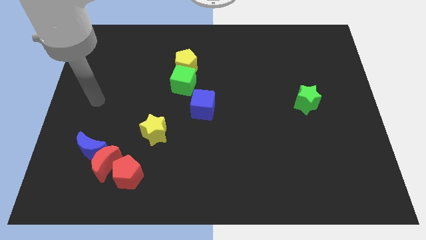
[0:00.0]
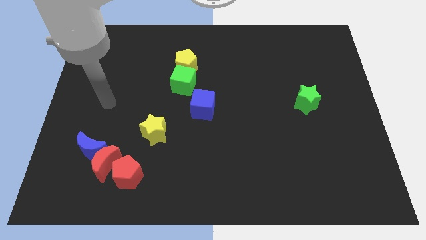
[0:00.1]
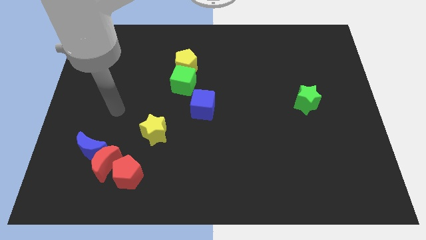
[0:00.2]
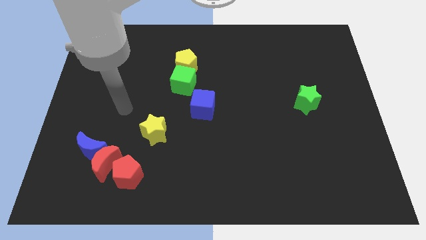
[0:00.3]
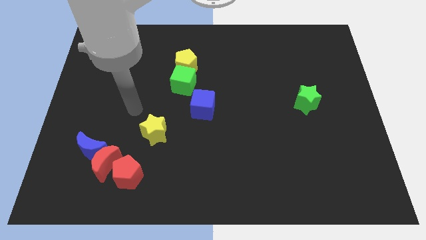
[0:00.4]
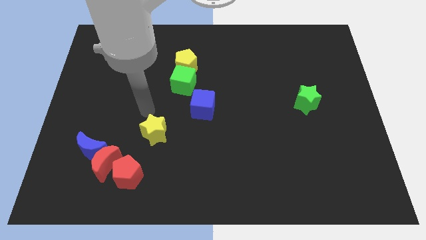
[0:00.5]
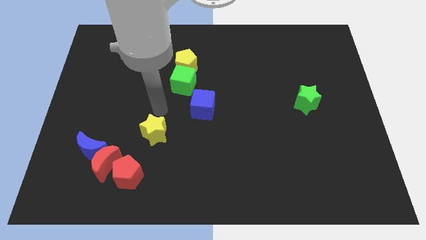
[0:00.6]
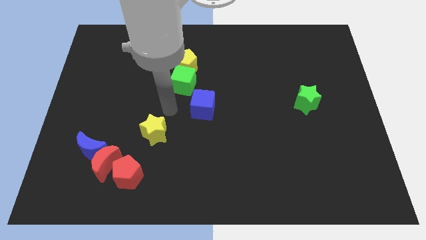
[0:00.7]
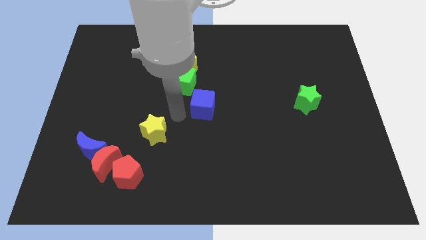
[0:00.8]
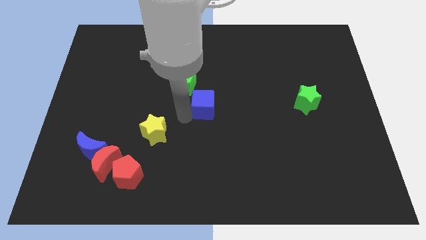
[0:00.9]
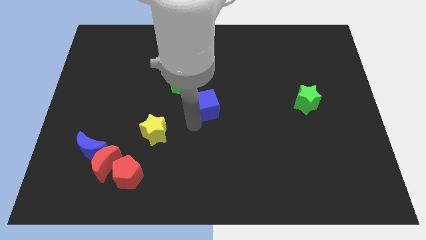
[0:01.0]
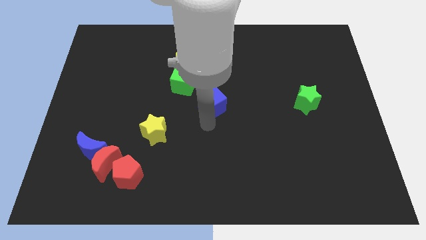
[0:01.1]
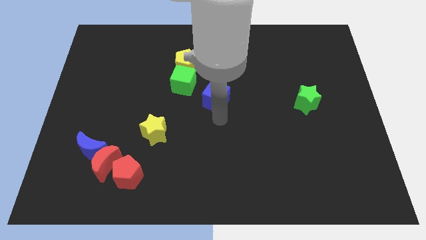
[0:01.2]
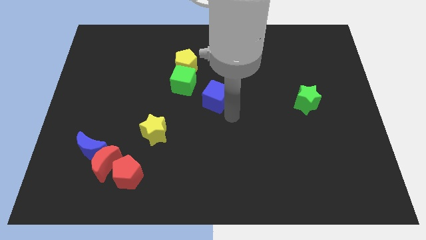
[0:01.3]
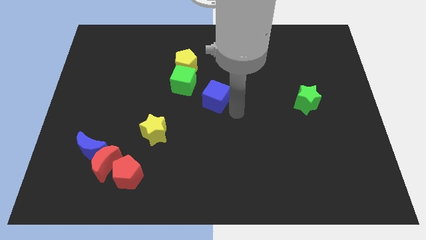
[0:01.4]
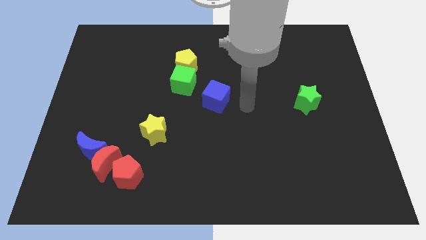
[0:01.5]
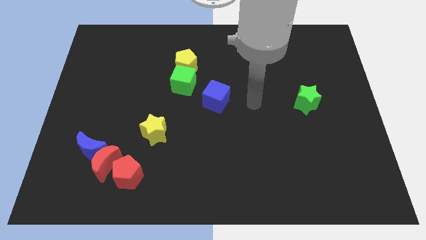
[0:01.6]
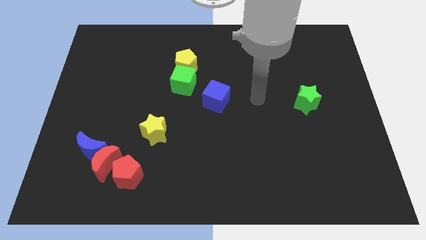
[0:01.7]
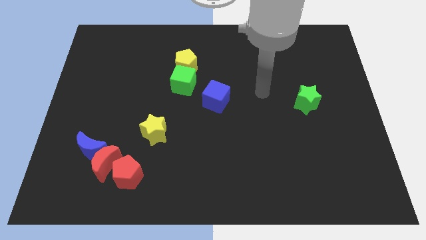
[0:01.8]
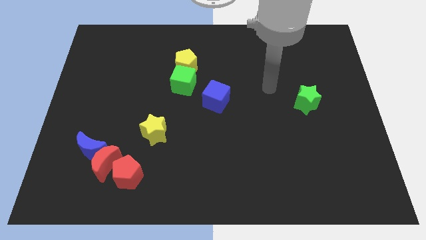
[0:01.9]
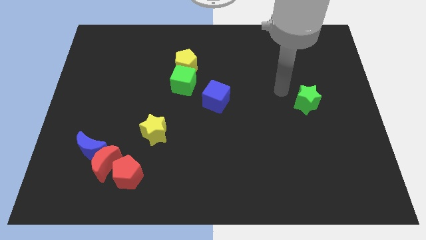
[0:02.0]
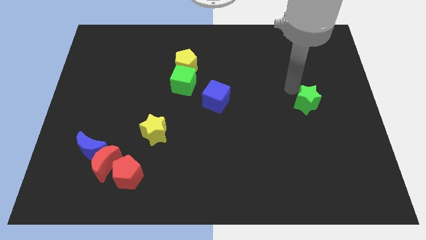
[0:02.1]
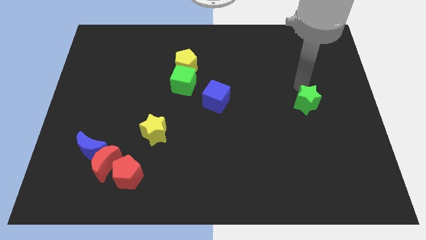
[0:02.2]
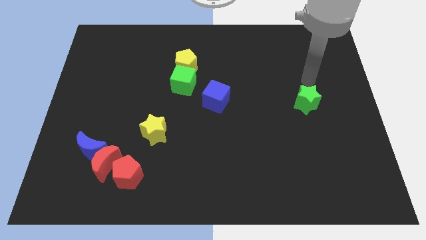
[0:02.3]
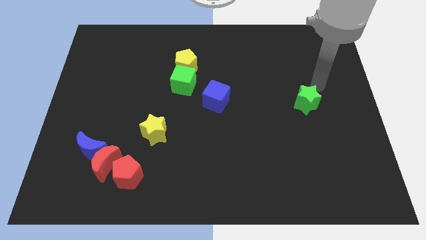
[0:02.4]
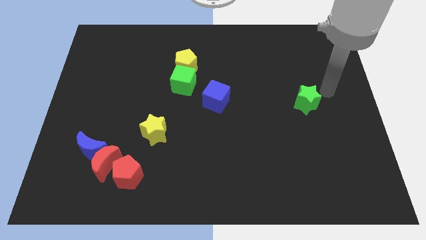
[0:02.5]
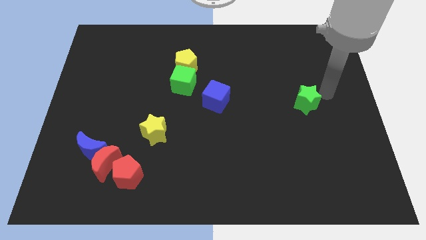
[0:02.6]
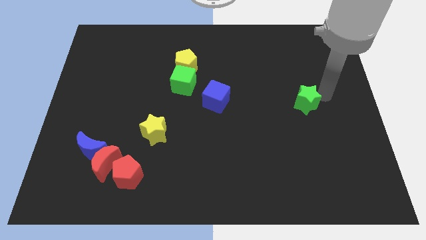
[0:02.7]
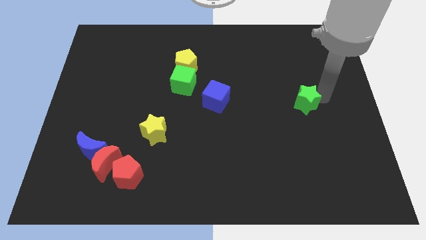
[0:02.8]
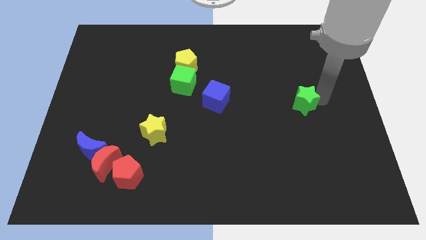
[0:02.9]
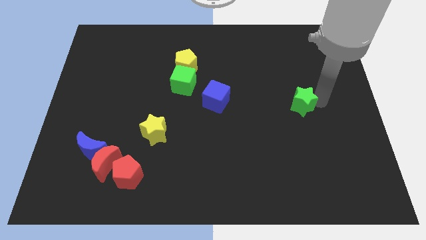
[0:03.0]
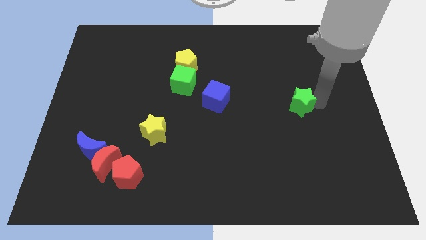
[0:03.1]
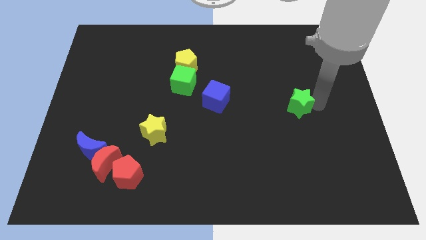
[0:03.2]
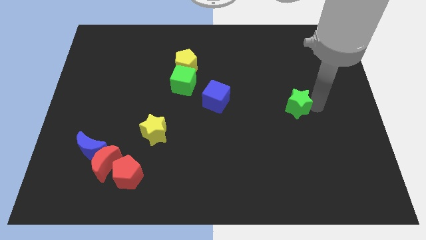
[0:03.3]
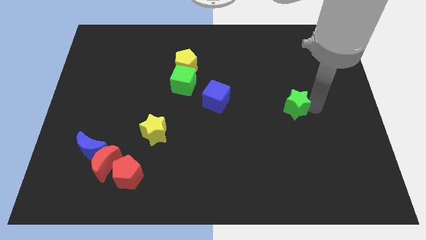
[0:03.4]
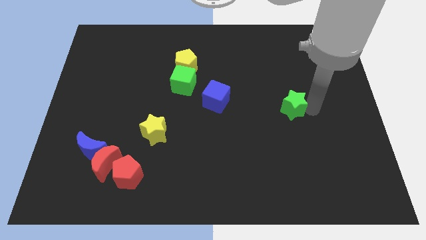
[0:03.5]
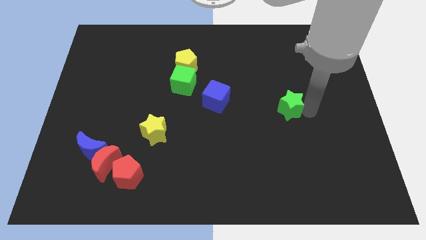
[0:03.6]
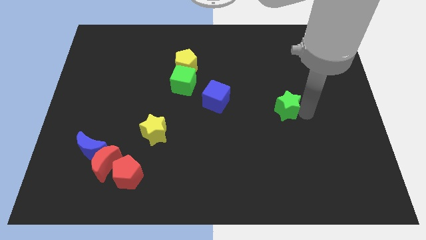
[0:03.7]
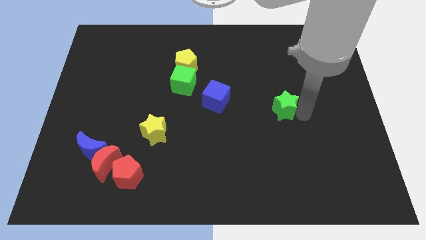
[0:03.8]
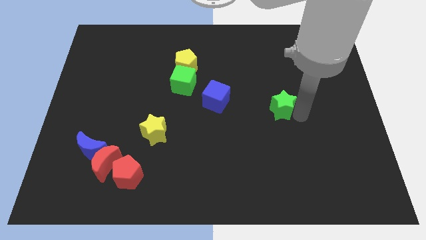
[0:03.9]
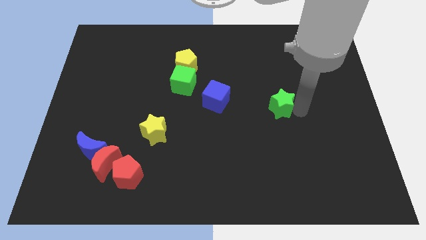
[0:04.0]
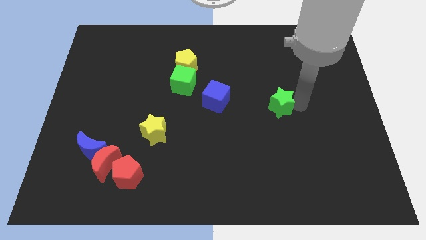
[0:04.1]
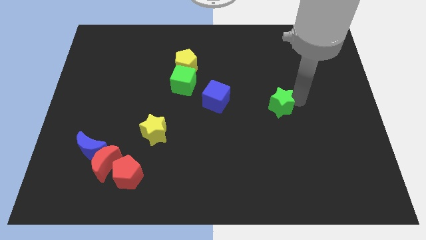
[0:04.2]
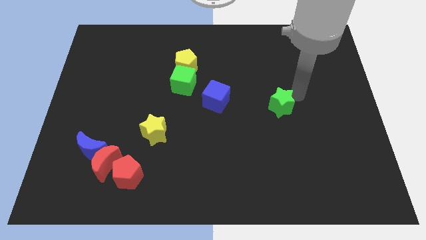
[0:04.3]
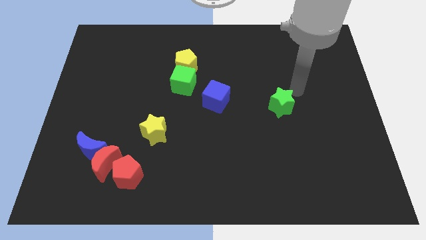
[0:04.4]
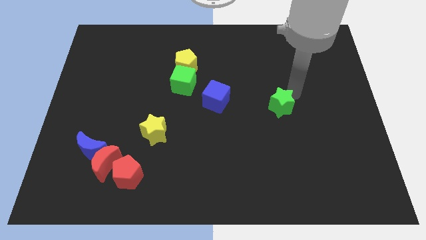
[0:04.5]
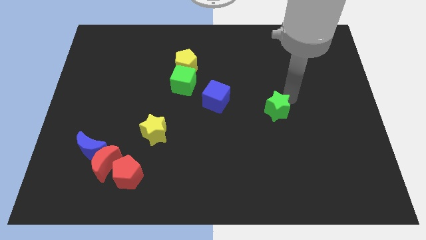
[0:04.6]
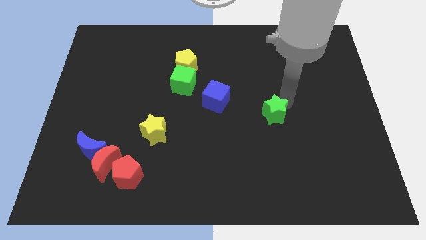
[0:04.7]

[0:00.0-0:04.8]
move the green star a bit diagonally down and left

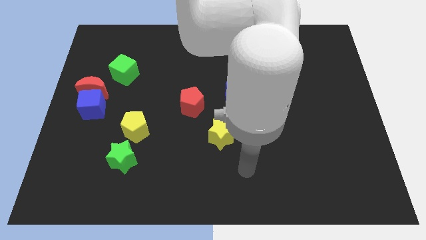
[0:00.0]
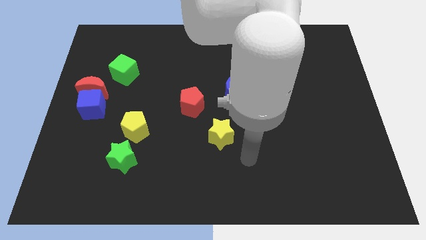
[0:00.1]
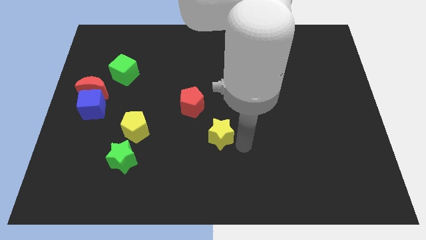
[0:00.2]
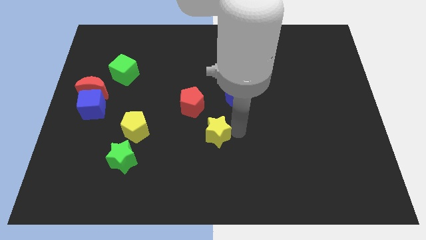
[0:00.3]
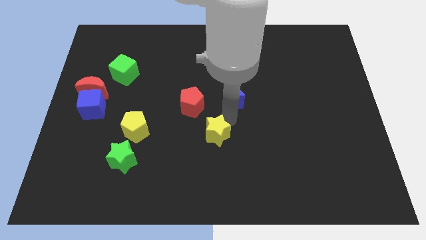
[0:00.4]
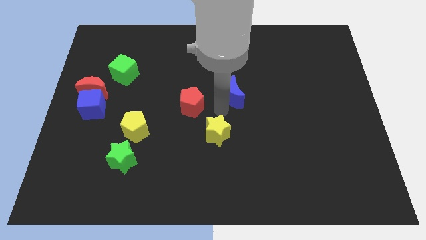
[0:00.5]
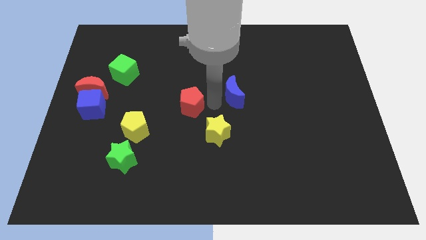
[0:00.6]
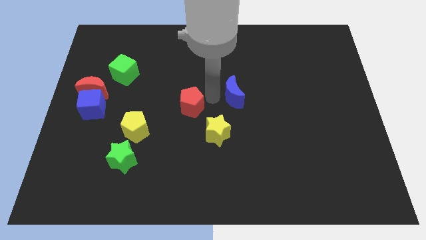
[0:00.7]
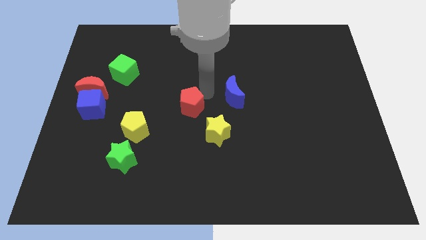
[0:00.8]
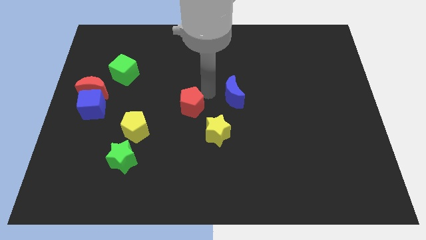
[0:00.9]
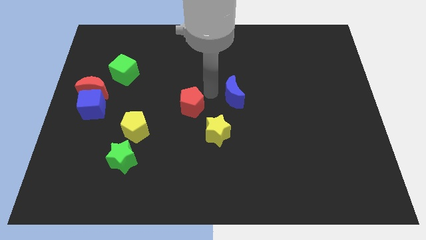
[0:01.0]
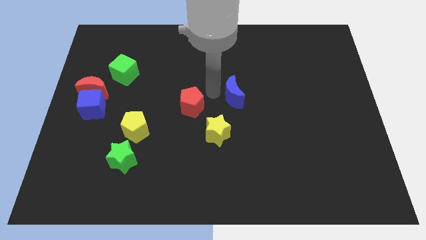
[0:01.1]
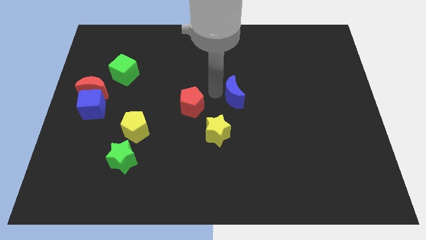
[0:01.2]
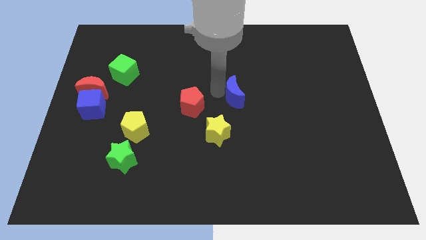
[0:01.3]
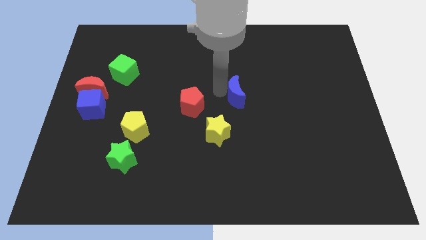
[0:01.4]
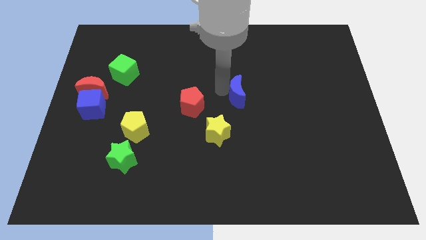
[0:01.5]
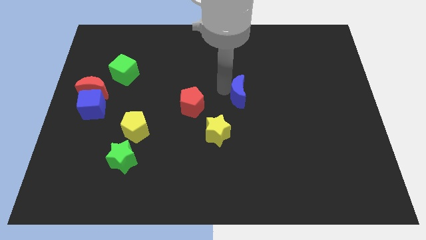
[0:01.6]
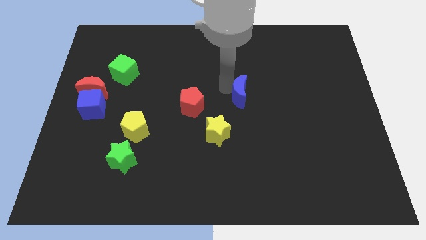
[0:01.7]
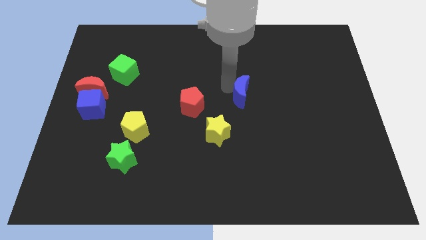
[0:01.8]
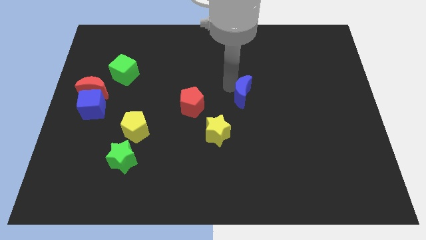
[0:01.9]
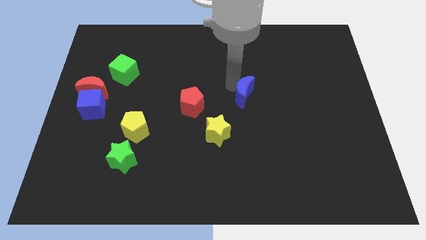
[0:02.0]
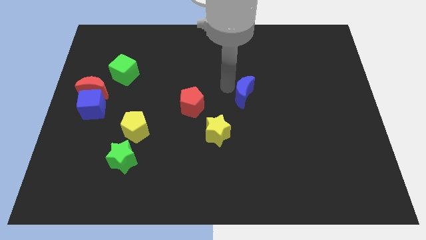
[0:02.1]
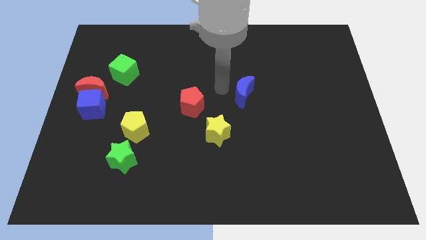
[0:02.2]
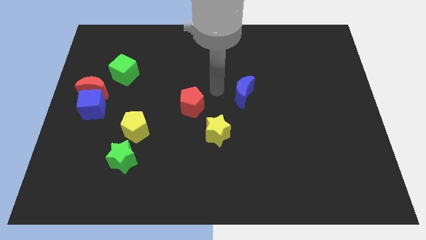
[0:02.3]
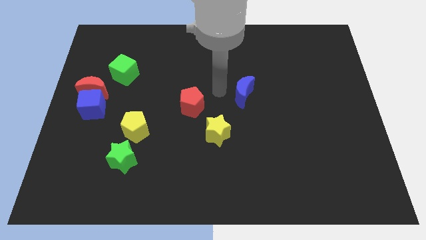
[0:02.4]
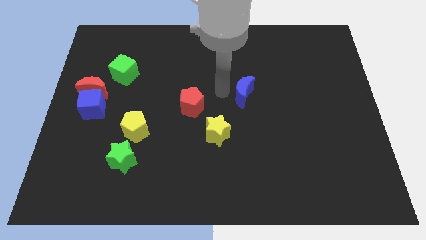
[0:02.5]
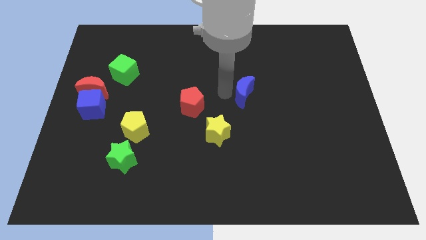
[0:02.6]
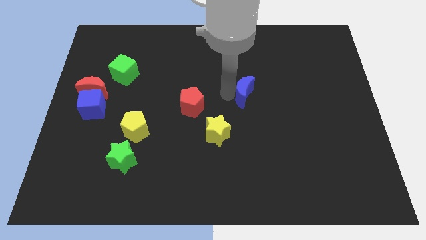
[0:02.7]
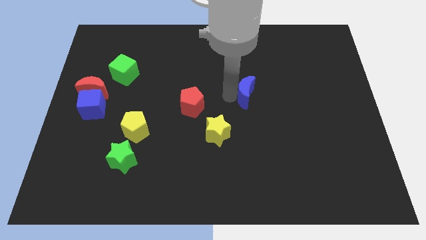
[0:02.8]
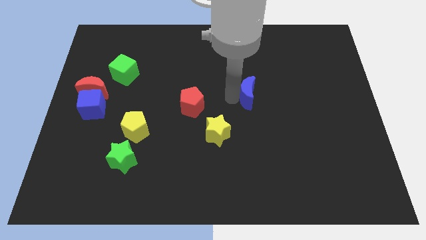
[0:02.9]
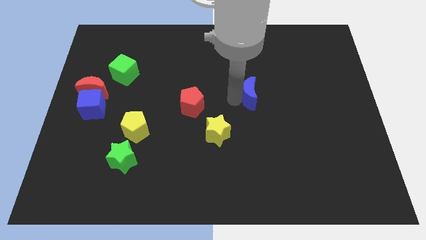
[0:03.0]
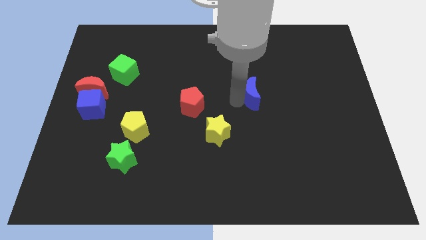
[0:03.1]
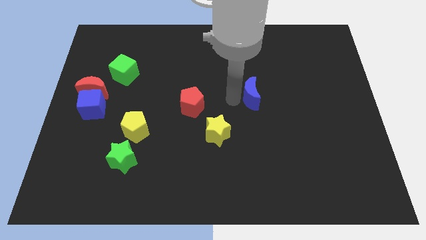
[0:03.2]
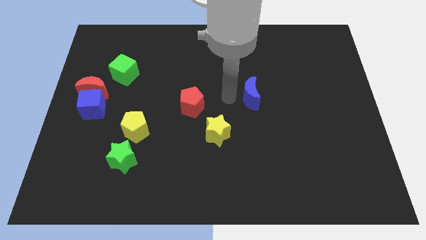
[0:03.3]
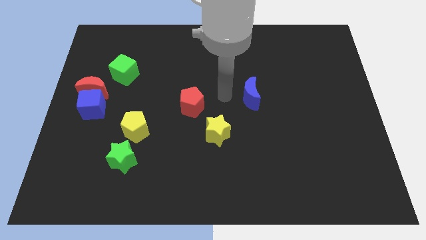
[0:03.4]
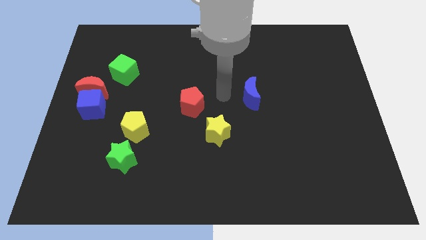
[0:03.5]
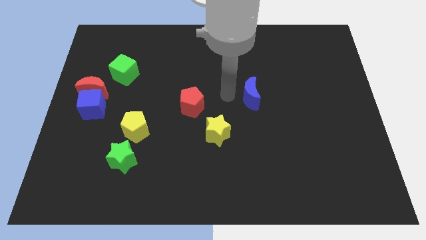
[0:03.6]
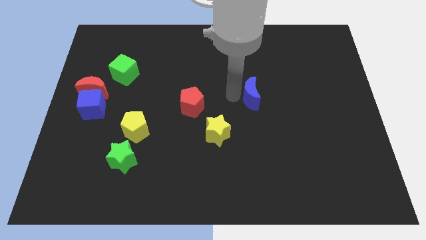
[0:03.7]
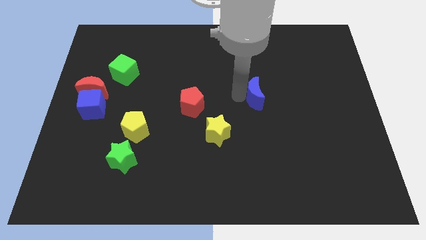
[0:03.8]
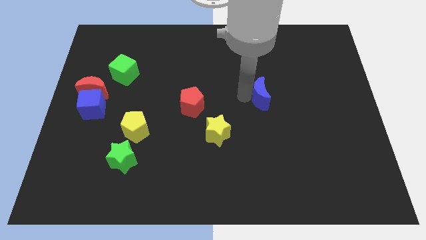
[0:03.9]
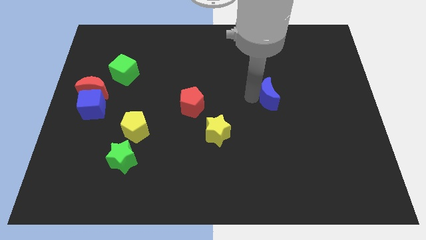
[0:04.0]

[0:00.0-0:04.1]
push the blue moon right a little
